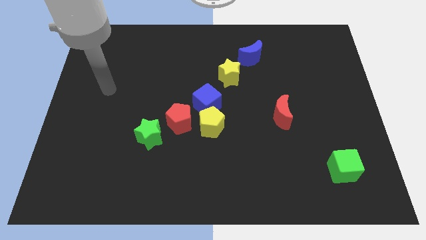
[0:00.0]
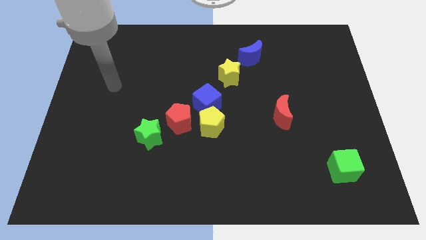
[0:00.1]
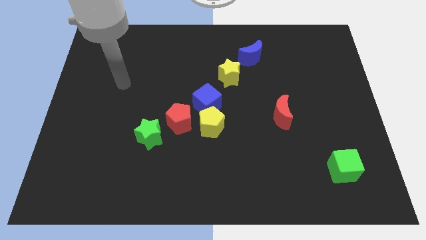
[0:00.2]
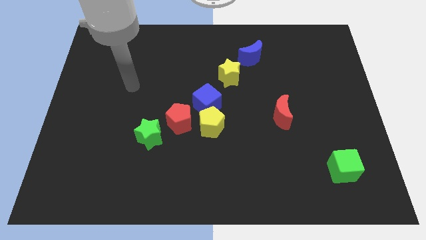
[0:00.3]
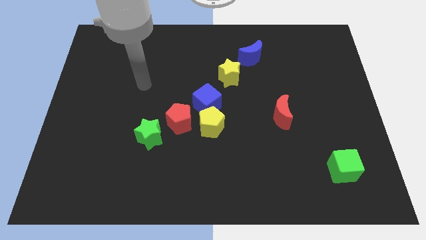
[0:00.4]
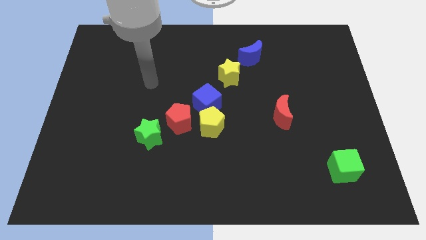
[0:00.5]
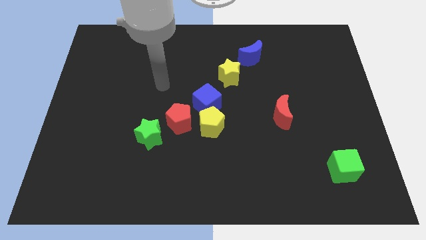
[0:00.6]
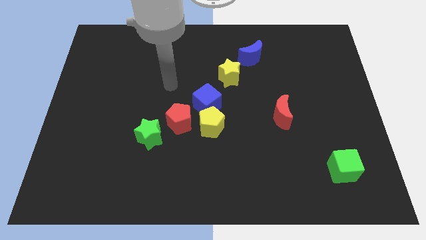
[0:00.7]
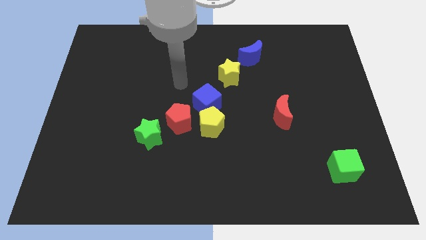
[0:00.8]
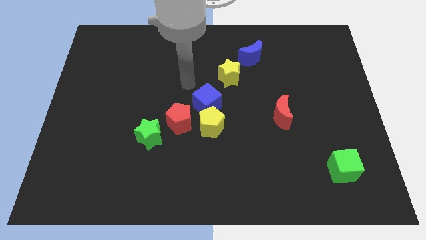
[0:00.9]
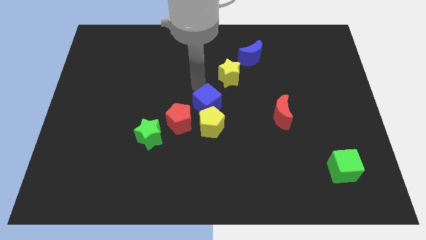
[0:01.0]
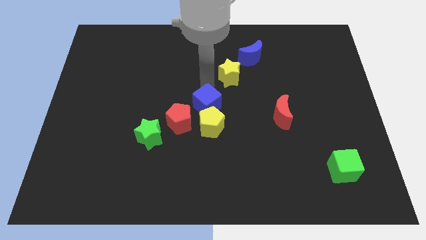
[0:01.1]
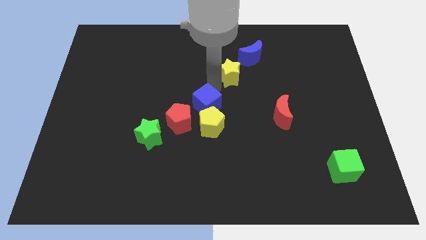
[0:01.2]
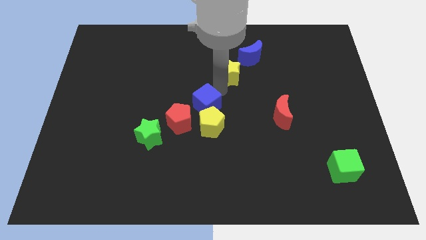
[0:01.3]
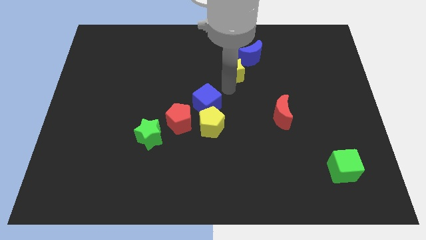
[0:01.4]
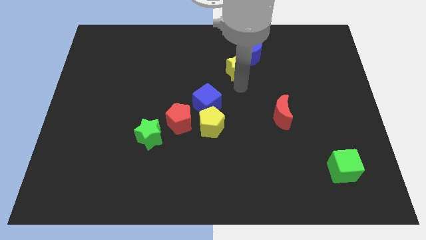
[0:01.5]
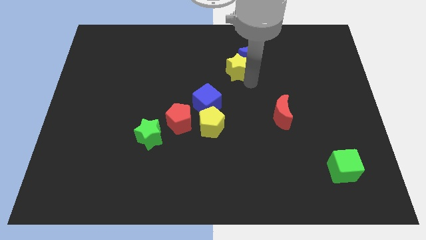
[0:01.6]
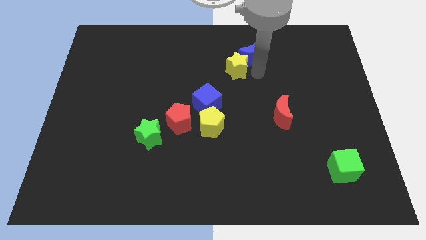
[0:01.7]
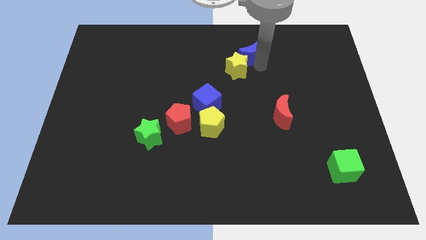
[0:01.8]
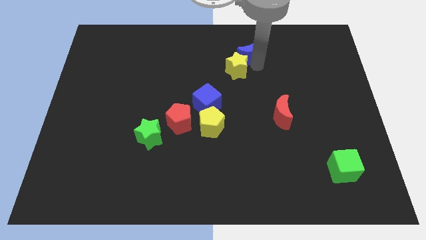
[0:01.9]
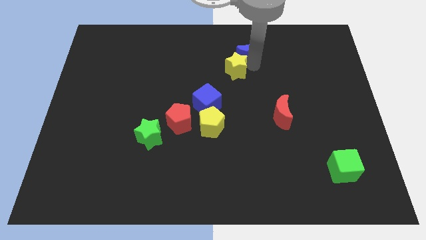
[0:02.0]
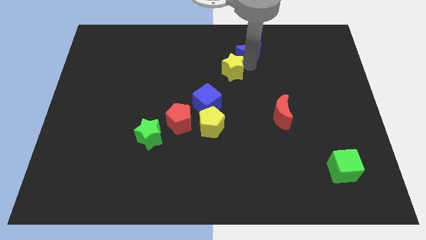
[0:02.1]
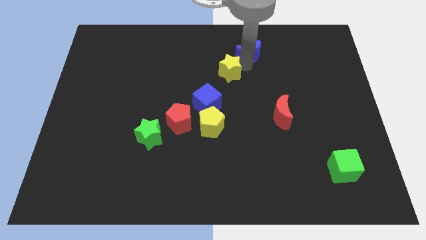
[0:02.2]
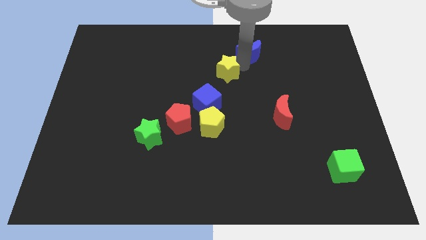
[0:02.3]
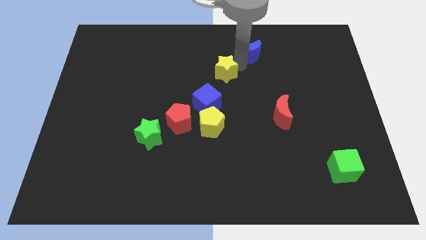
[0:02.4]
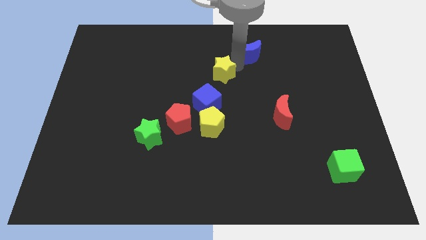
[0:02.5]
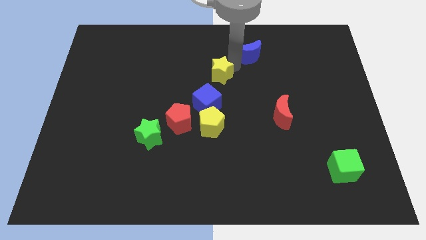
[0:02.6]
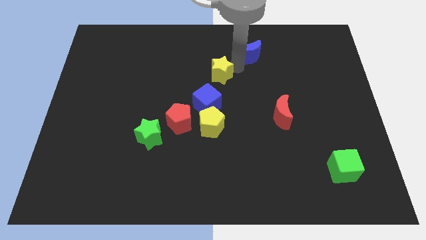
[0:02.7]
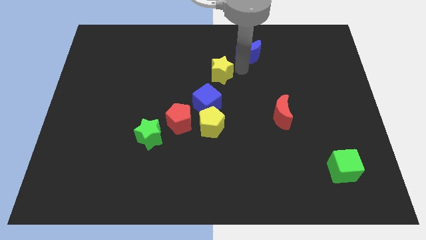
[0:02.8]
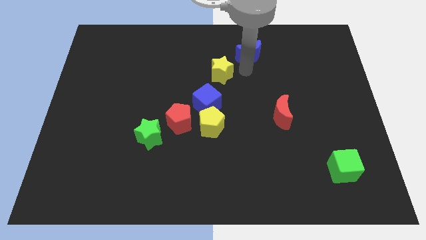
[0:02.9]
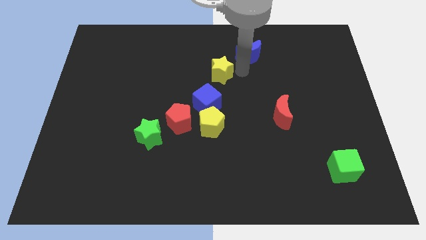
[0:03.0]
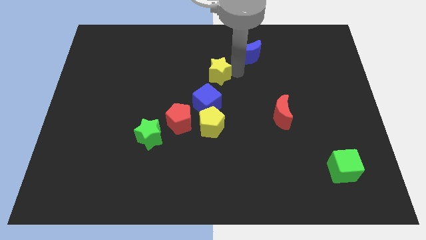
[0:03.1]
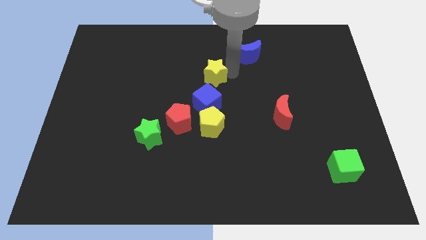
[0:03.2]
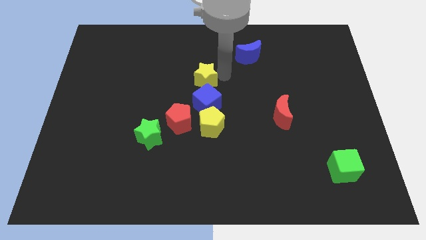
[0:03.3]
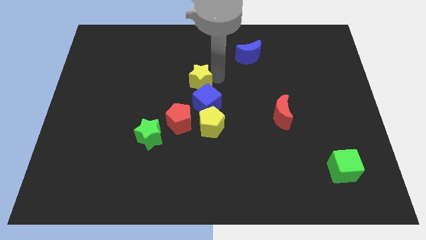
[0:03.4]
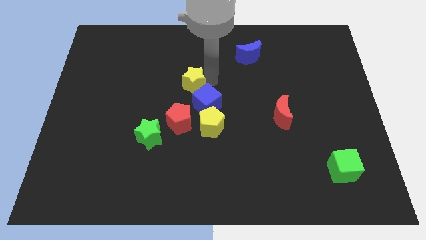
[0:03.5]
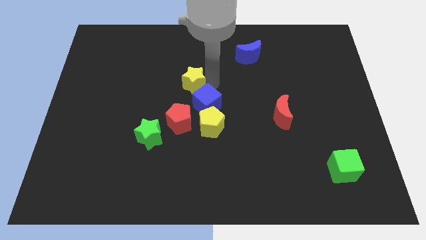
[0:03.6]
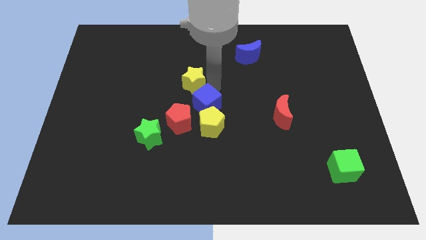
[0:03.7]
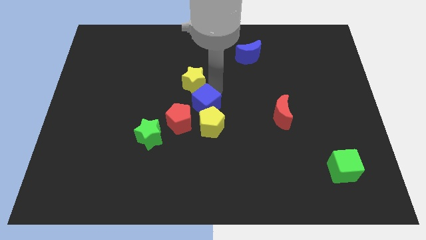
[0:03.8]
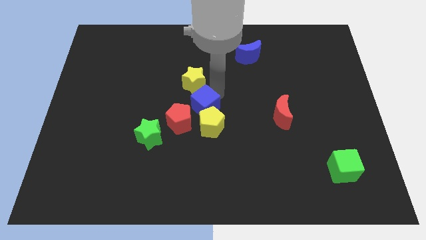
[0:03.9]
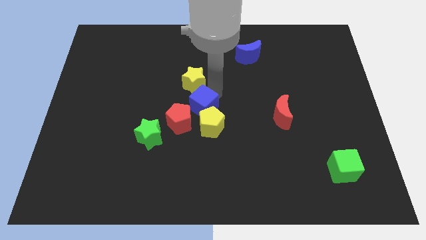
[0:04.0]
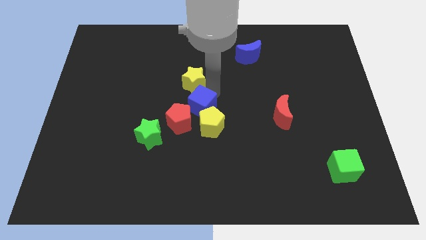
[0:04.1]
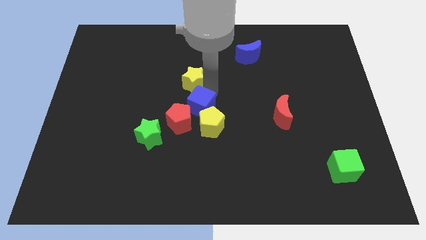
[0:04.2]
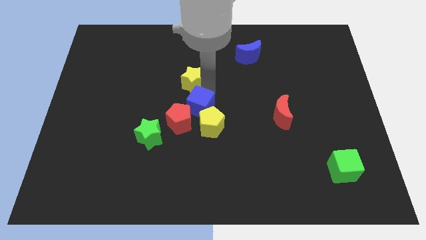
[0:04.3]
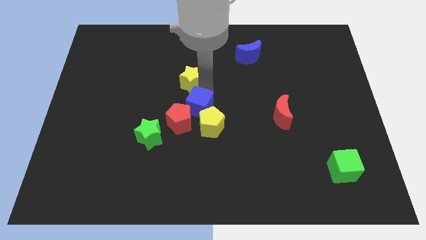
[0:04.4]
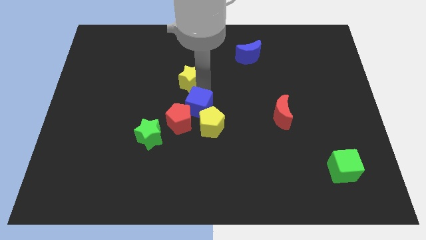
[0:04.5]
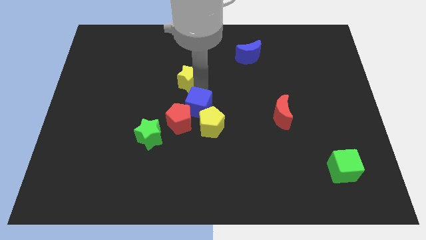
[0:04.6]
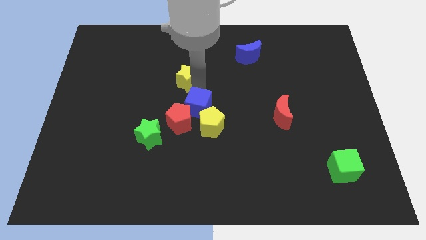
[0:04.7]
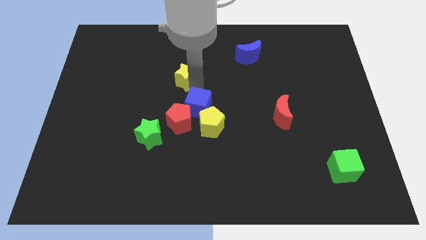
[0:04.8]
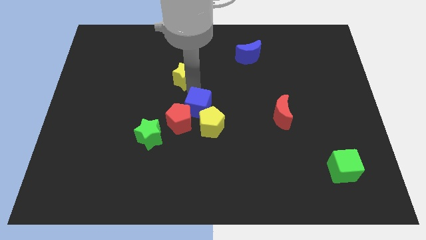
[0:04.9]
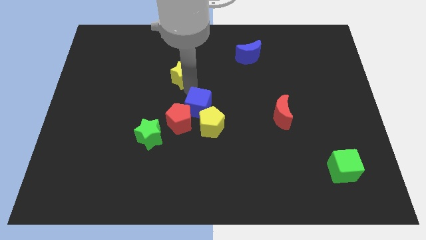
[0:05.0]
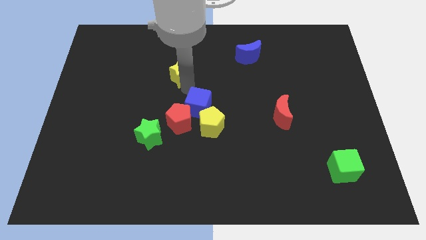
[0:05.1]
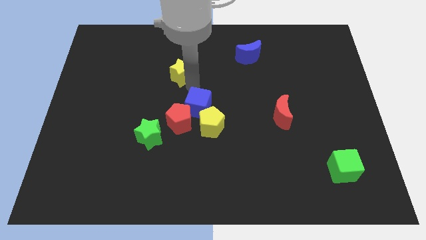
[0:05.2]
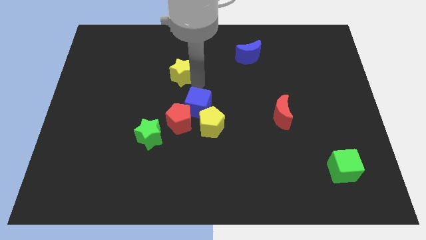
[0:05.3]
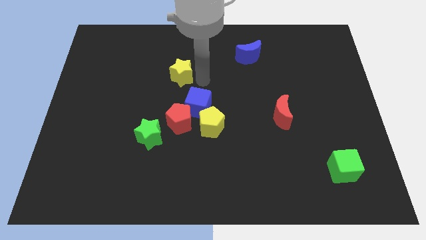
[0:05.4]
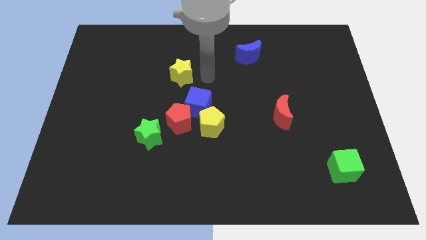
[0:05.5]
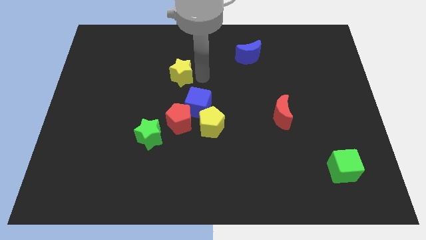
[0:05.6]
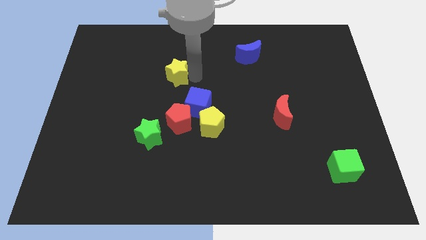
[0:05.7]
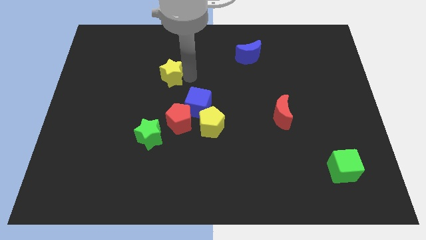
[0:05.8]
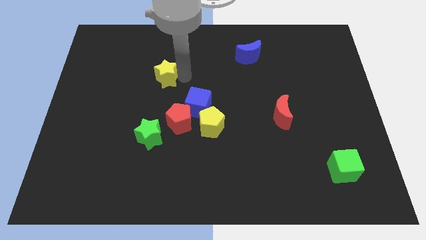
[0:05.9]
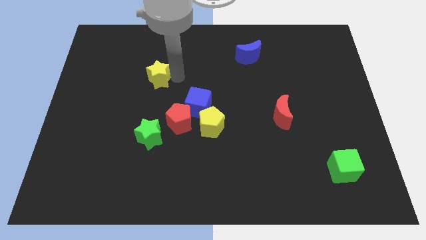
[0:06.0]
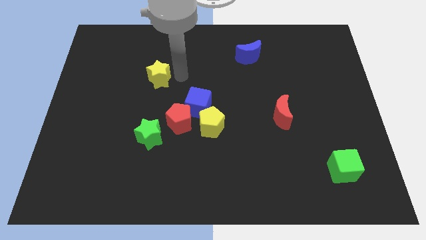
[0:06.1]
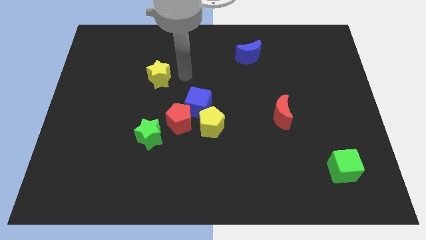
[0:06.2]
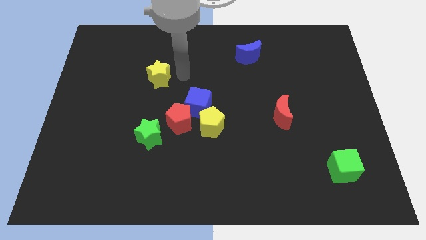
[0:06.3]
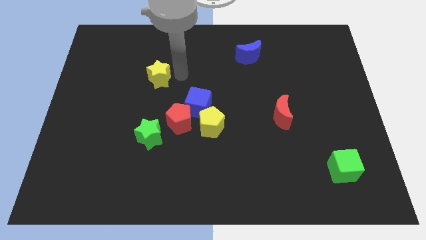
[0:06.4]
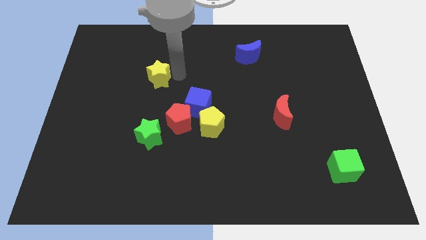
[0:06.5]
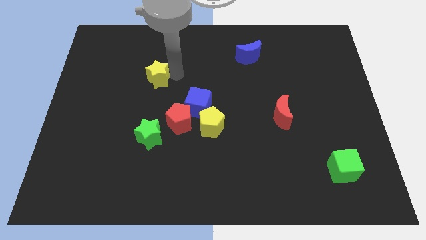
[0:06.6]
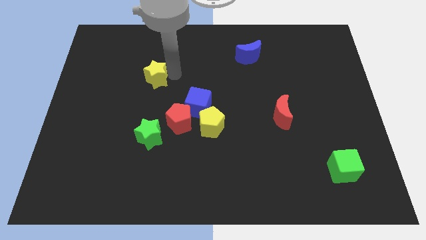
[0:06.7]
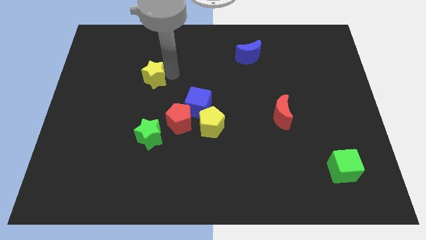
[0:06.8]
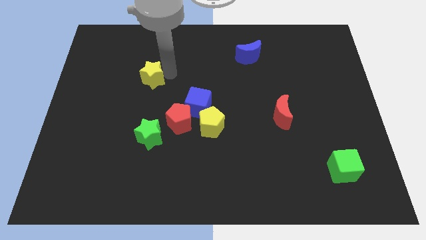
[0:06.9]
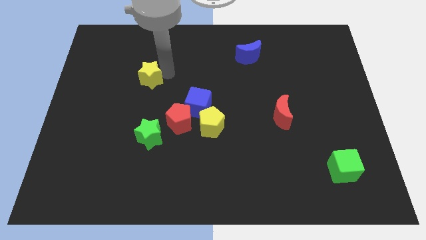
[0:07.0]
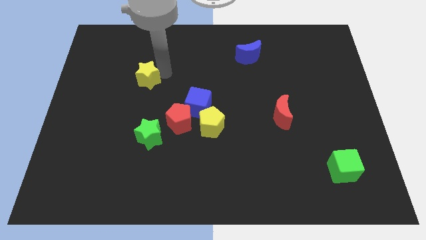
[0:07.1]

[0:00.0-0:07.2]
slide the yellow star to the left

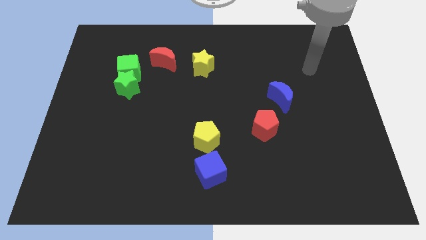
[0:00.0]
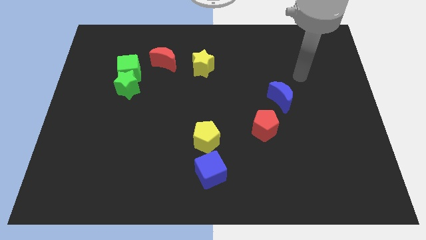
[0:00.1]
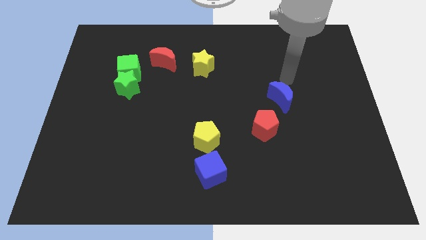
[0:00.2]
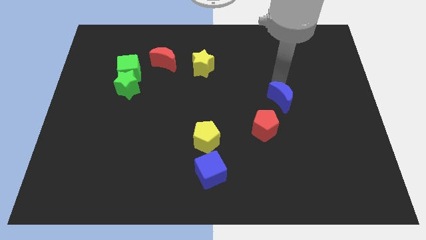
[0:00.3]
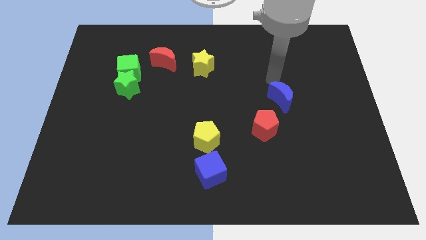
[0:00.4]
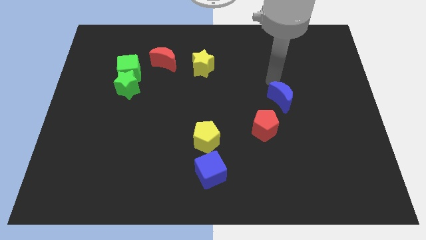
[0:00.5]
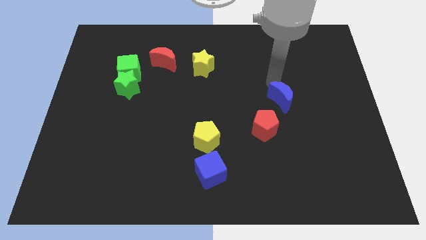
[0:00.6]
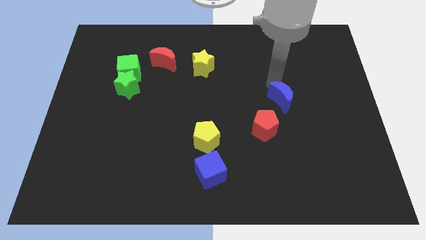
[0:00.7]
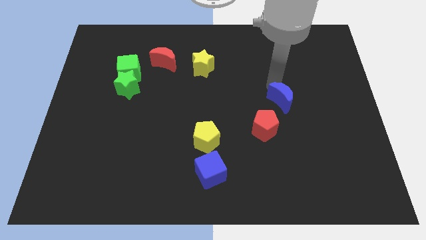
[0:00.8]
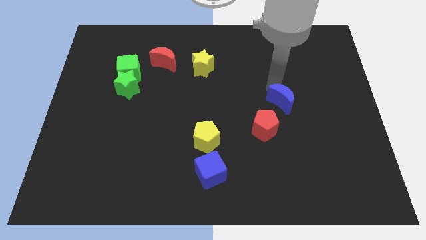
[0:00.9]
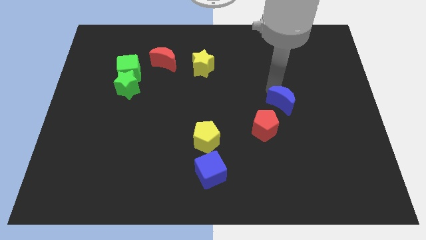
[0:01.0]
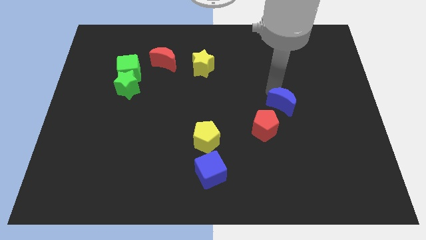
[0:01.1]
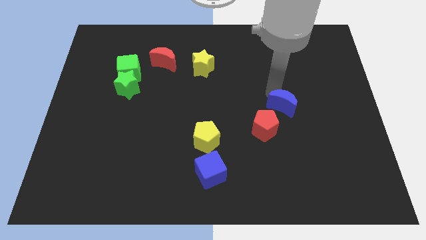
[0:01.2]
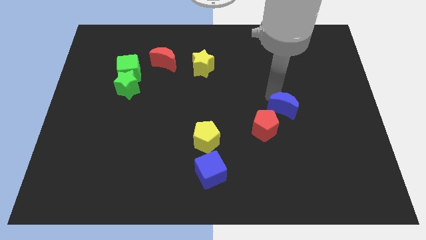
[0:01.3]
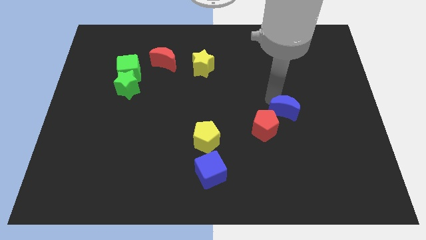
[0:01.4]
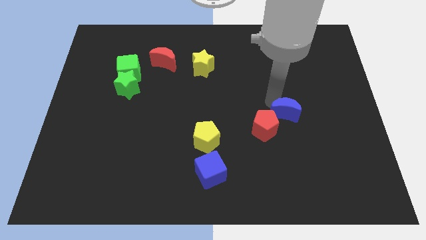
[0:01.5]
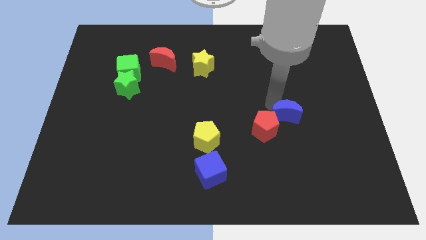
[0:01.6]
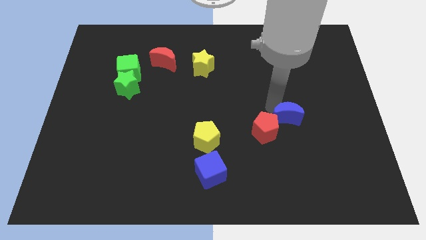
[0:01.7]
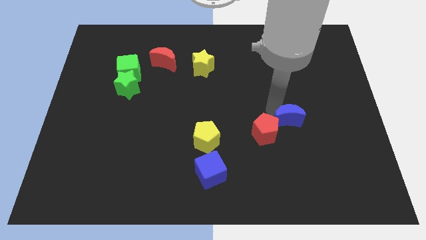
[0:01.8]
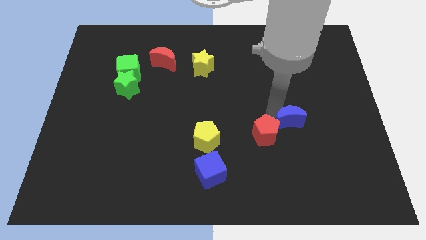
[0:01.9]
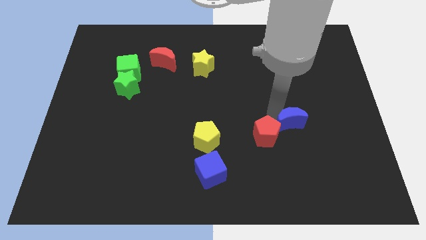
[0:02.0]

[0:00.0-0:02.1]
push the blue moon down somewhat
